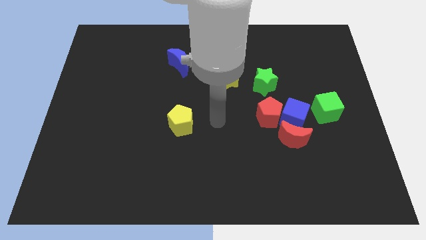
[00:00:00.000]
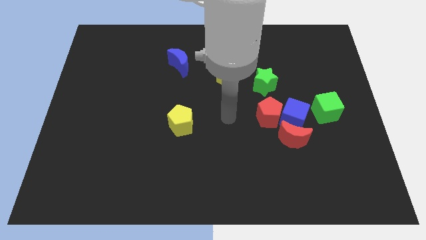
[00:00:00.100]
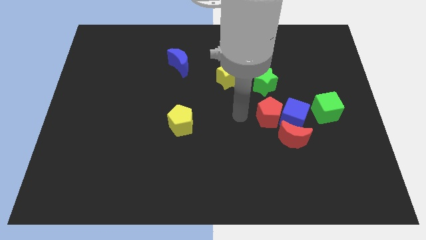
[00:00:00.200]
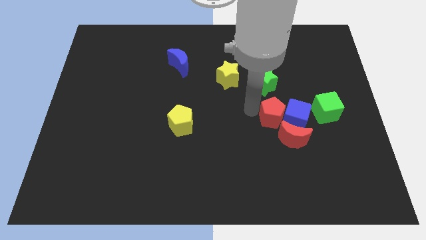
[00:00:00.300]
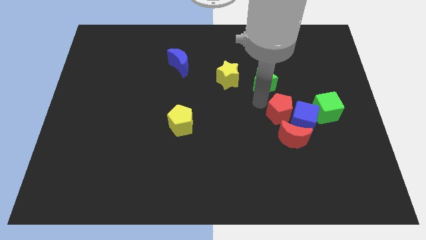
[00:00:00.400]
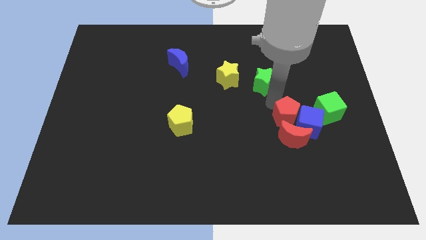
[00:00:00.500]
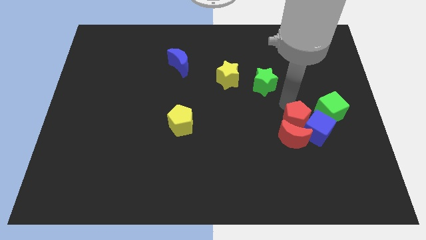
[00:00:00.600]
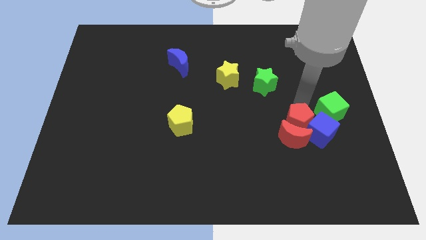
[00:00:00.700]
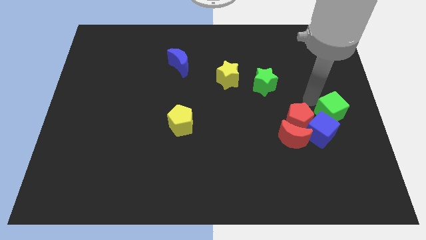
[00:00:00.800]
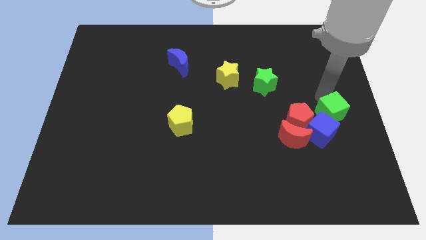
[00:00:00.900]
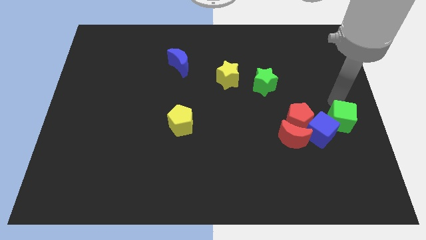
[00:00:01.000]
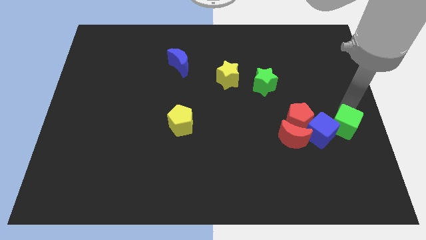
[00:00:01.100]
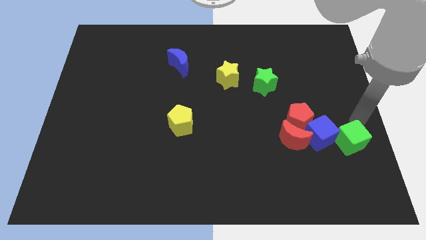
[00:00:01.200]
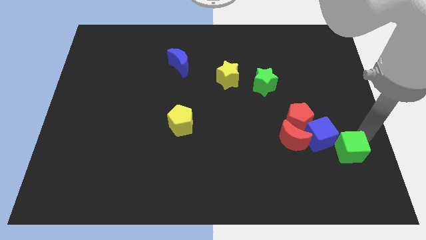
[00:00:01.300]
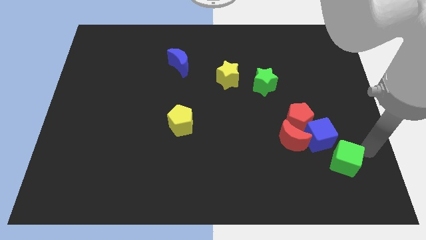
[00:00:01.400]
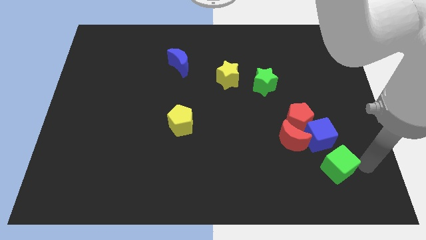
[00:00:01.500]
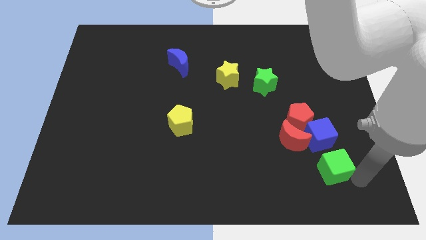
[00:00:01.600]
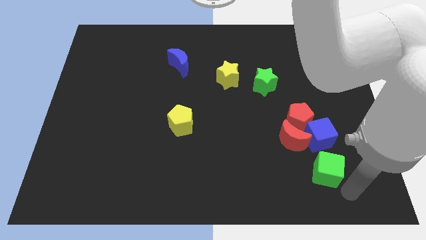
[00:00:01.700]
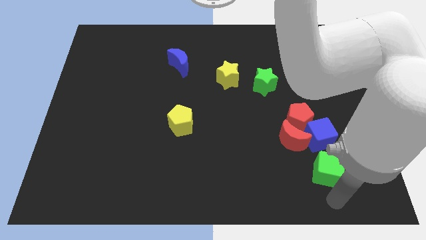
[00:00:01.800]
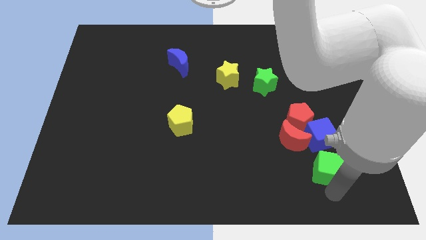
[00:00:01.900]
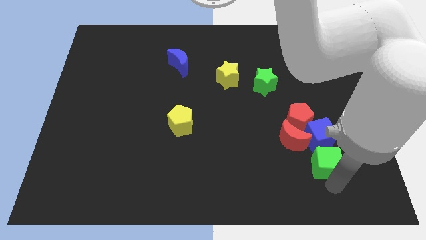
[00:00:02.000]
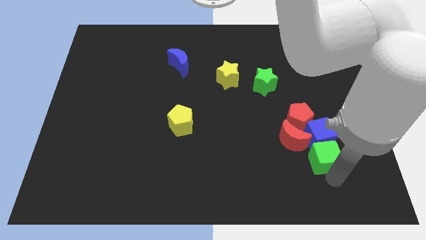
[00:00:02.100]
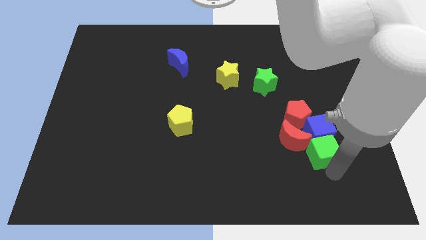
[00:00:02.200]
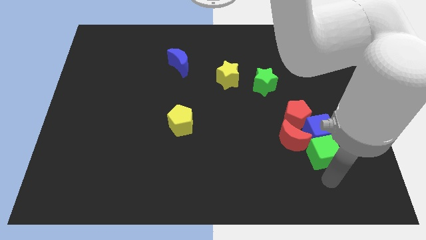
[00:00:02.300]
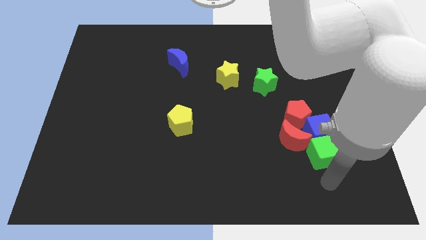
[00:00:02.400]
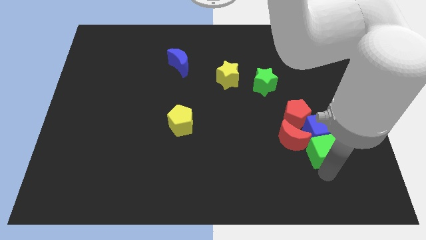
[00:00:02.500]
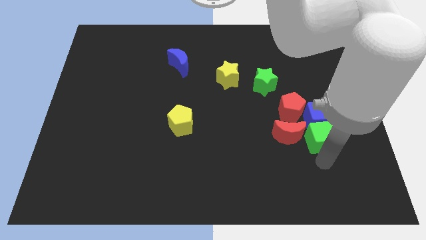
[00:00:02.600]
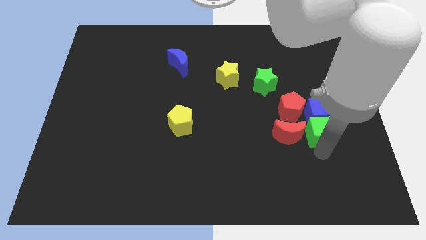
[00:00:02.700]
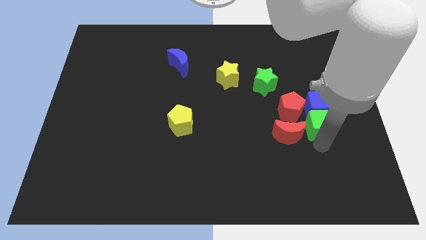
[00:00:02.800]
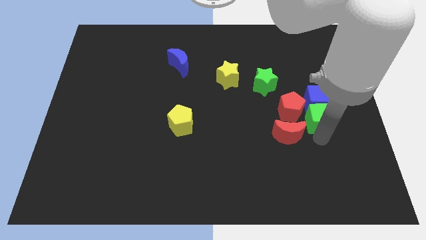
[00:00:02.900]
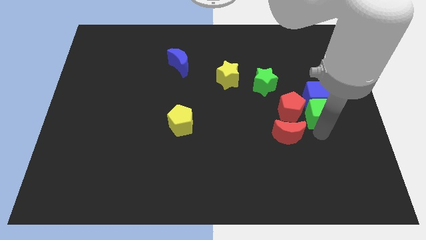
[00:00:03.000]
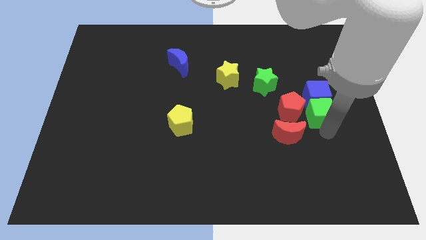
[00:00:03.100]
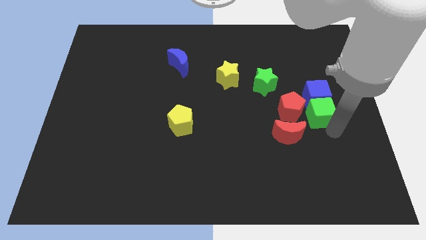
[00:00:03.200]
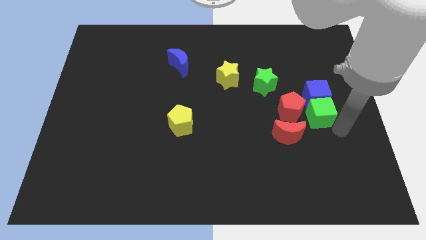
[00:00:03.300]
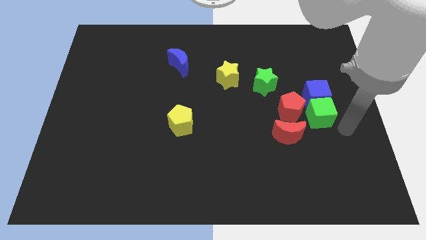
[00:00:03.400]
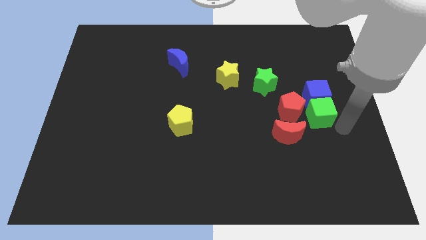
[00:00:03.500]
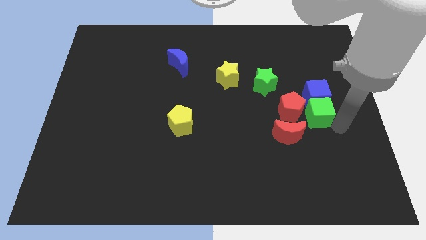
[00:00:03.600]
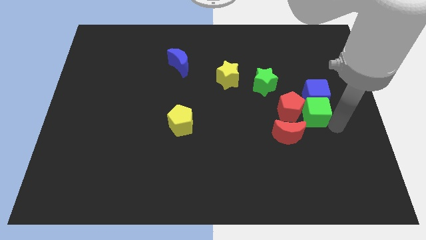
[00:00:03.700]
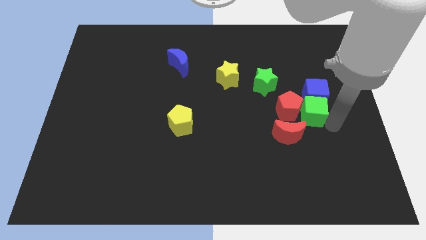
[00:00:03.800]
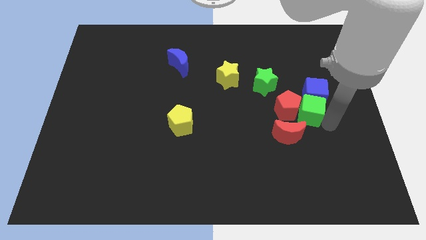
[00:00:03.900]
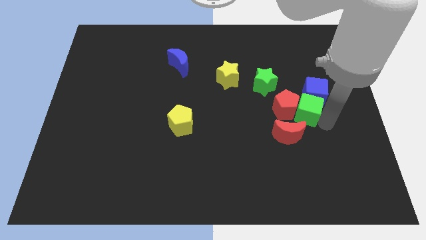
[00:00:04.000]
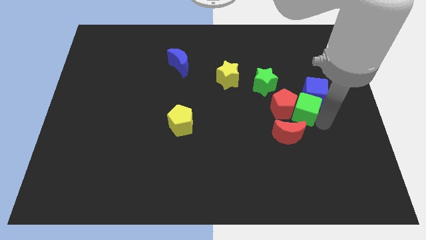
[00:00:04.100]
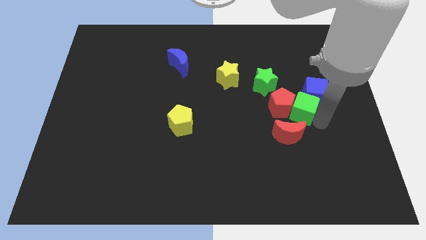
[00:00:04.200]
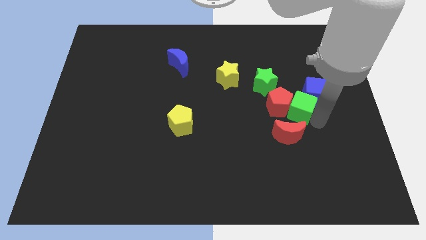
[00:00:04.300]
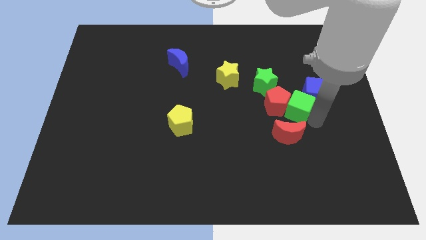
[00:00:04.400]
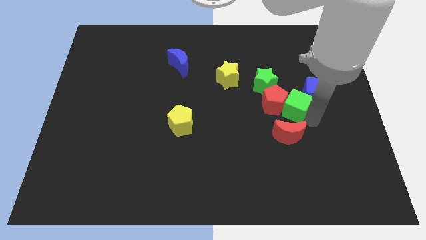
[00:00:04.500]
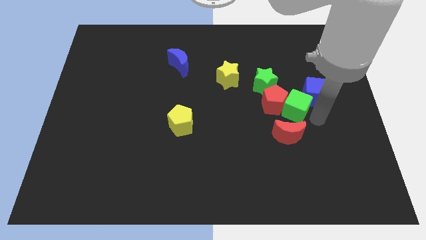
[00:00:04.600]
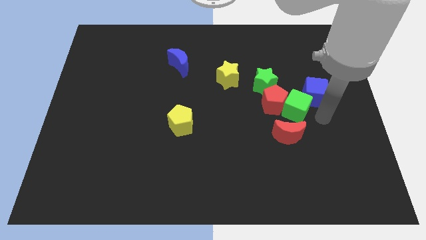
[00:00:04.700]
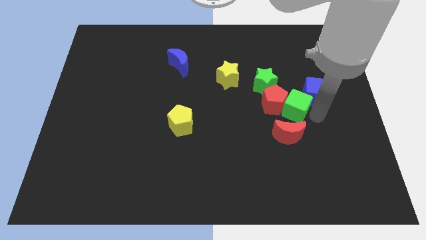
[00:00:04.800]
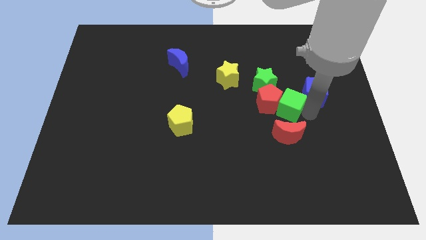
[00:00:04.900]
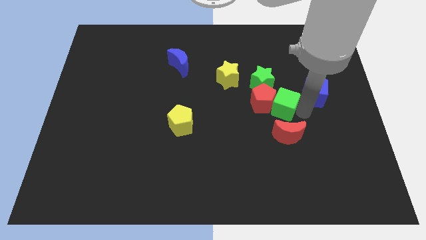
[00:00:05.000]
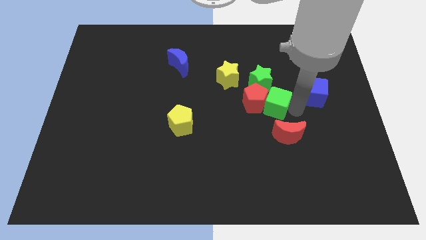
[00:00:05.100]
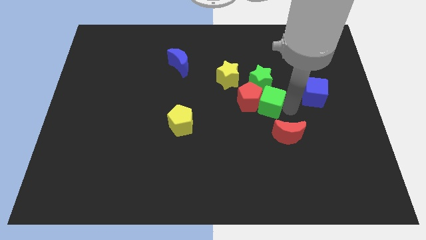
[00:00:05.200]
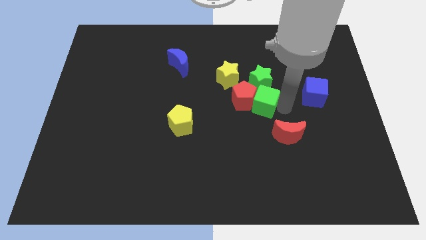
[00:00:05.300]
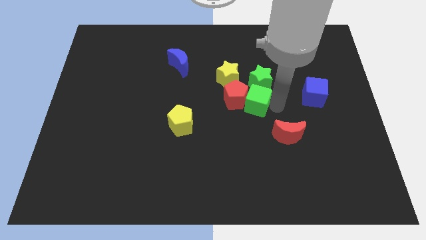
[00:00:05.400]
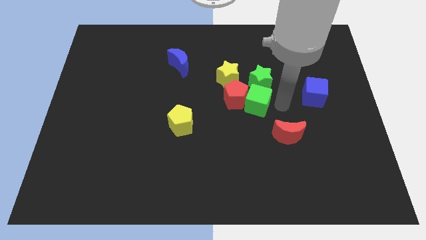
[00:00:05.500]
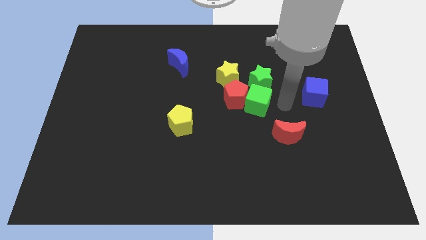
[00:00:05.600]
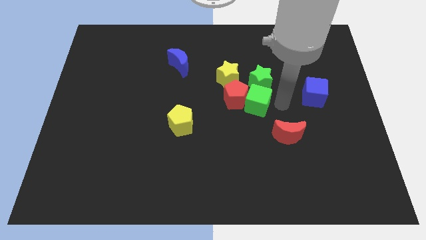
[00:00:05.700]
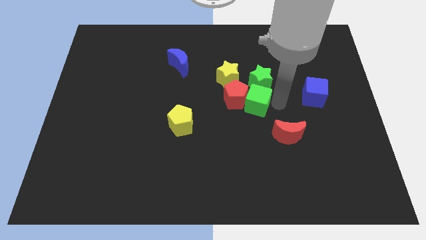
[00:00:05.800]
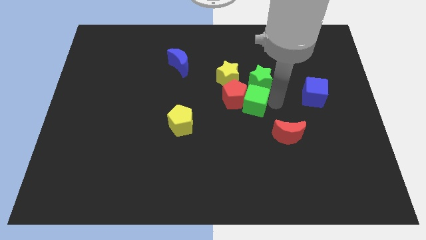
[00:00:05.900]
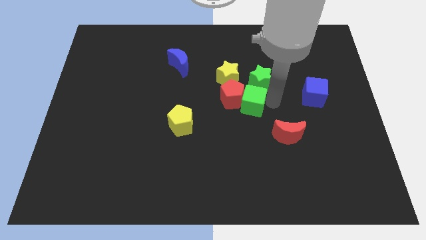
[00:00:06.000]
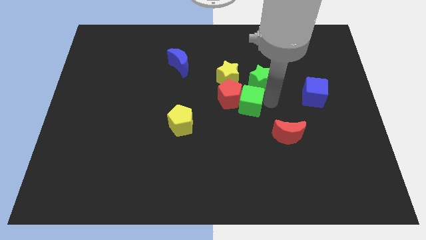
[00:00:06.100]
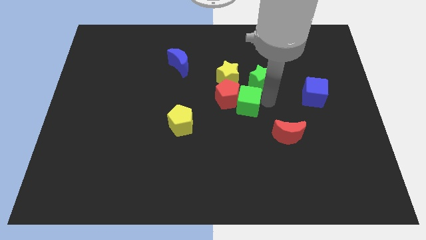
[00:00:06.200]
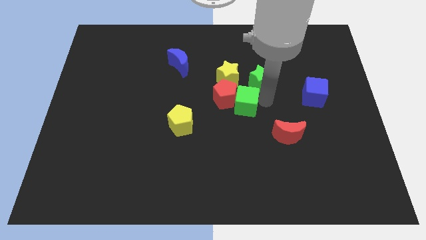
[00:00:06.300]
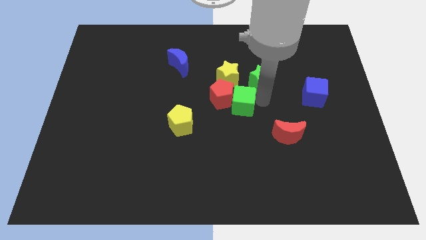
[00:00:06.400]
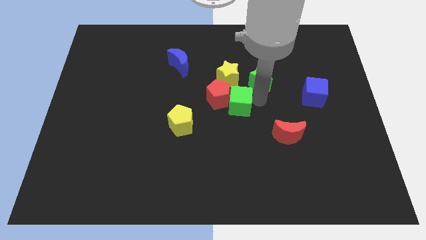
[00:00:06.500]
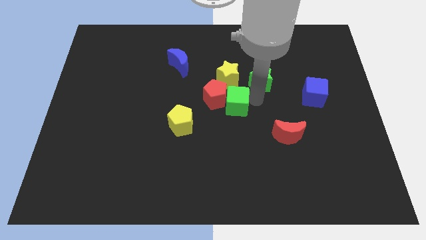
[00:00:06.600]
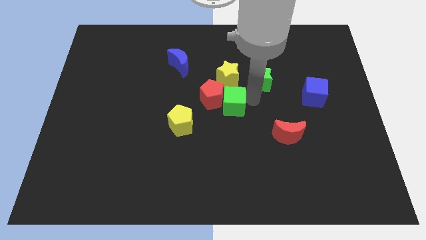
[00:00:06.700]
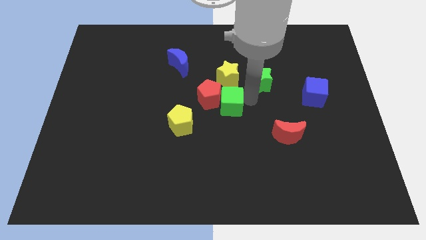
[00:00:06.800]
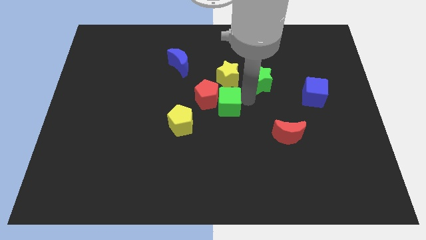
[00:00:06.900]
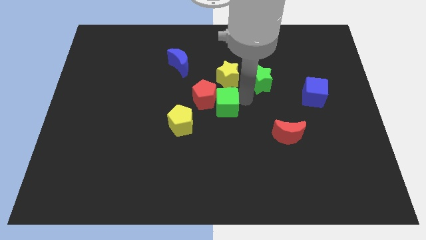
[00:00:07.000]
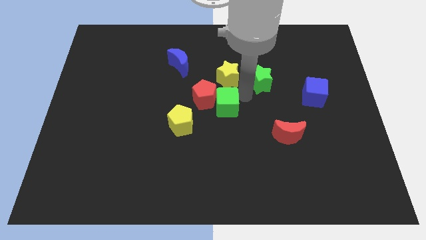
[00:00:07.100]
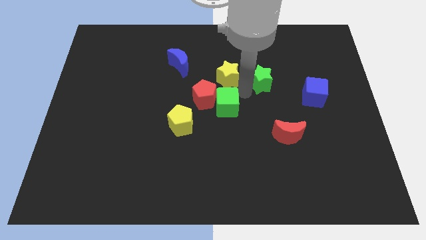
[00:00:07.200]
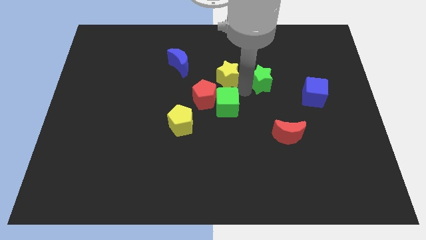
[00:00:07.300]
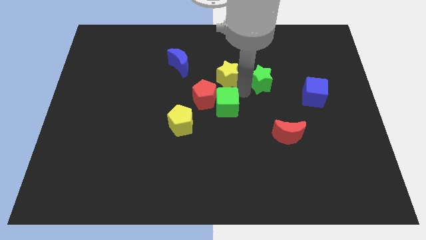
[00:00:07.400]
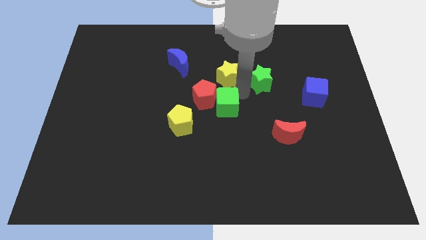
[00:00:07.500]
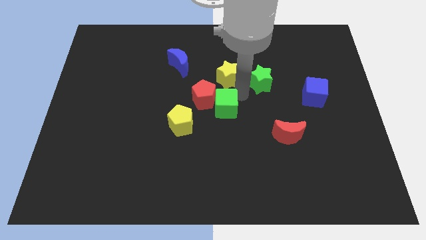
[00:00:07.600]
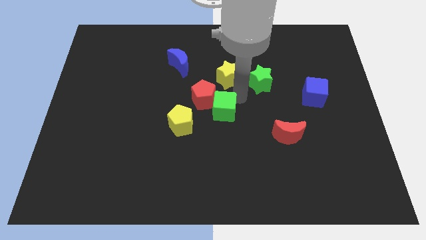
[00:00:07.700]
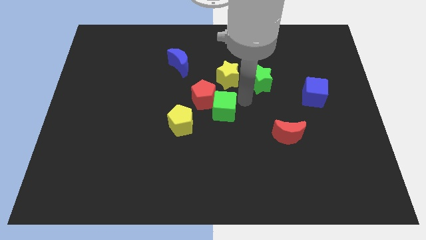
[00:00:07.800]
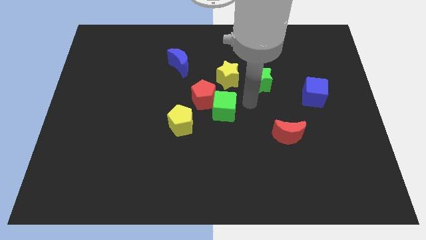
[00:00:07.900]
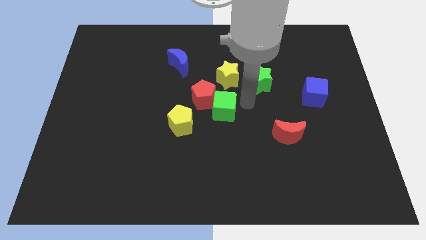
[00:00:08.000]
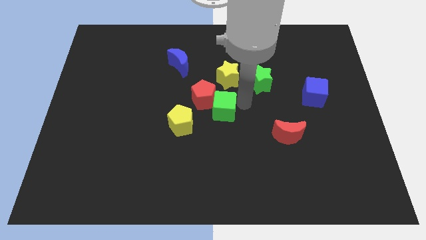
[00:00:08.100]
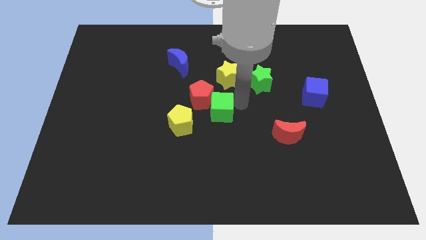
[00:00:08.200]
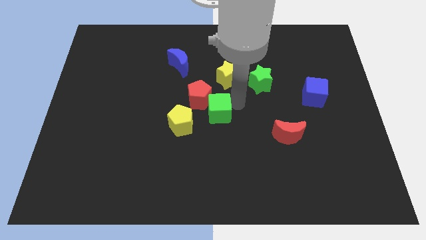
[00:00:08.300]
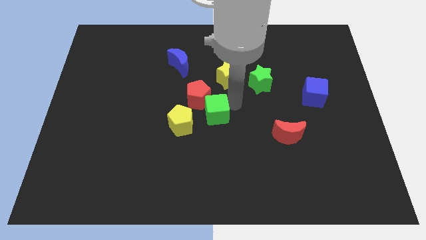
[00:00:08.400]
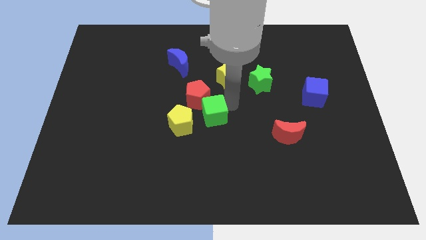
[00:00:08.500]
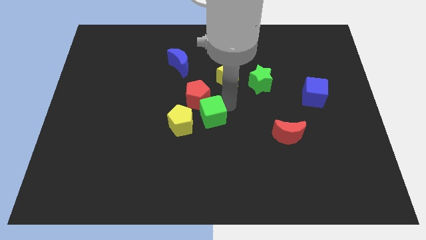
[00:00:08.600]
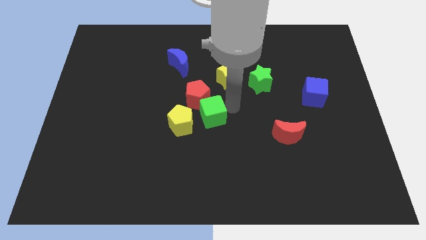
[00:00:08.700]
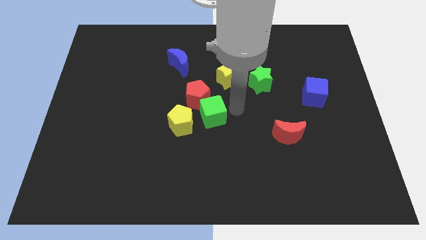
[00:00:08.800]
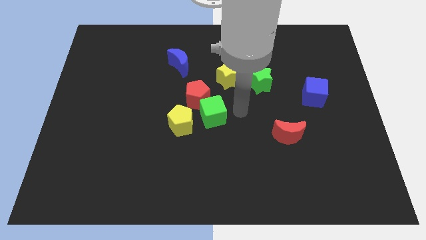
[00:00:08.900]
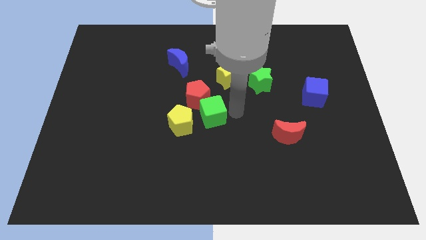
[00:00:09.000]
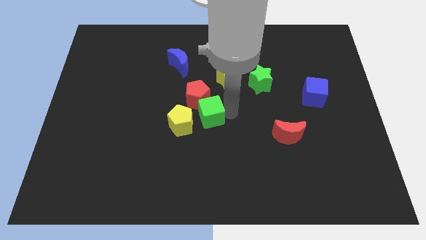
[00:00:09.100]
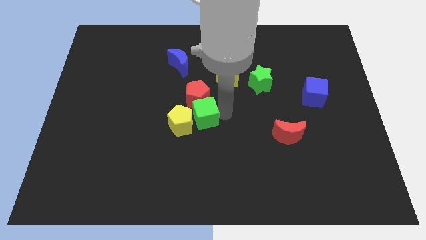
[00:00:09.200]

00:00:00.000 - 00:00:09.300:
slide the green cube towards the yellow pentagon
